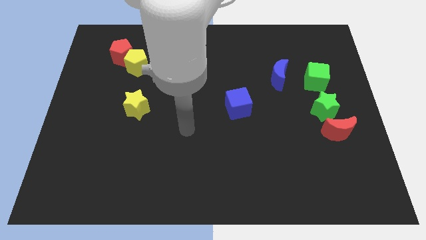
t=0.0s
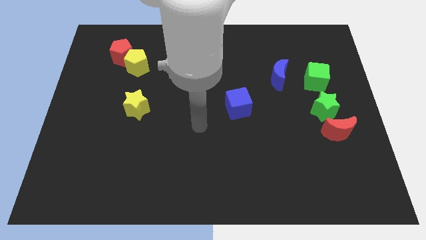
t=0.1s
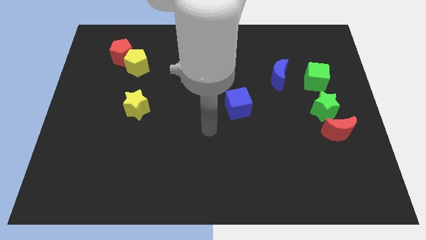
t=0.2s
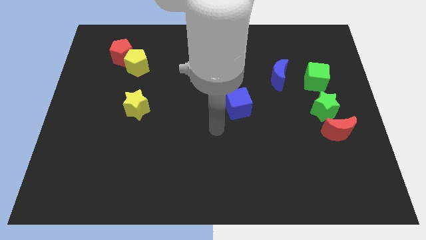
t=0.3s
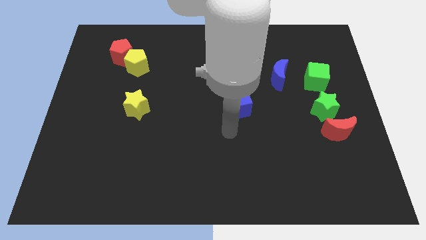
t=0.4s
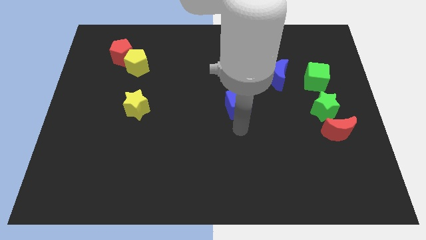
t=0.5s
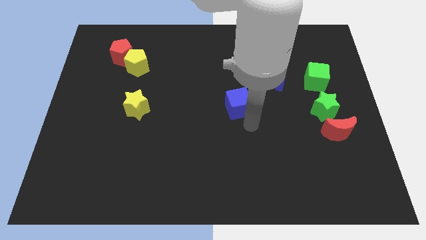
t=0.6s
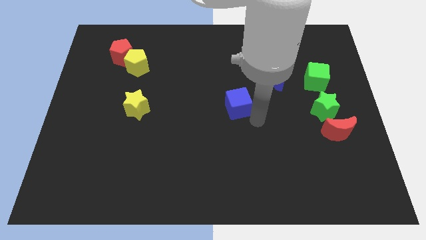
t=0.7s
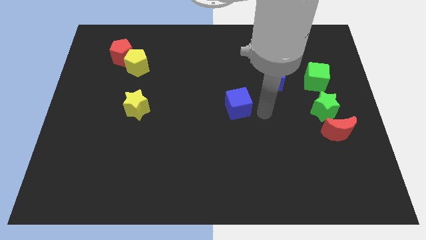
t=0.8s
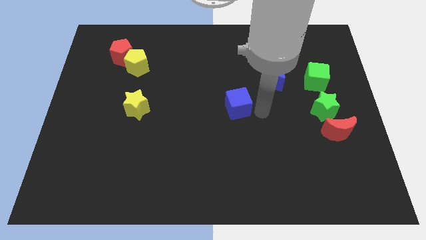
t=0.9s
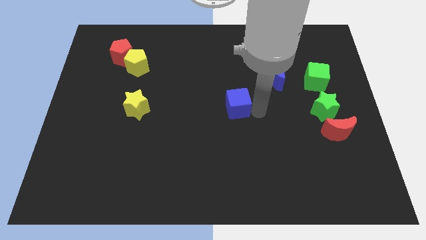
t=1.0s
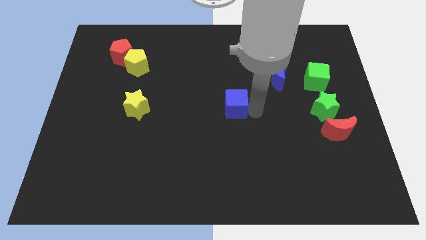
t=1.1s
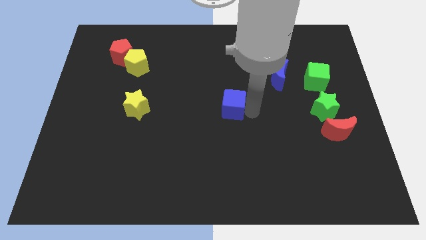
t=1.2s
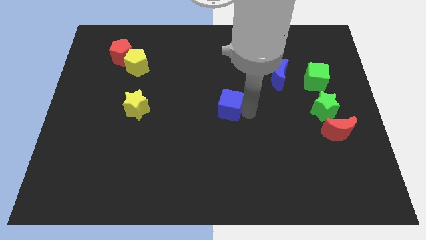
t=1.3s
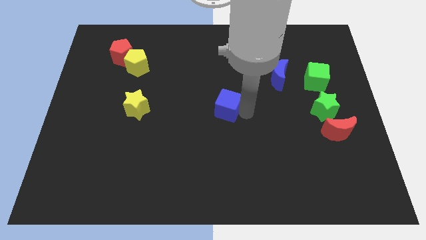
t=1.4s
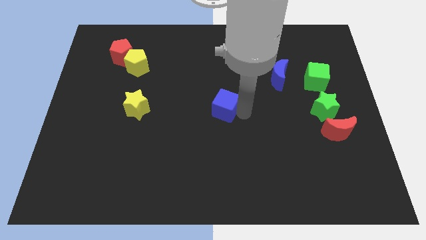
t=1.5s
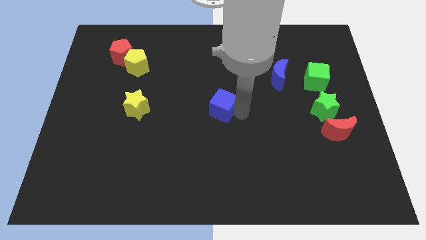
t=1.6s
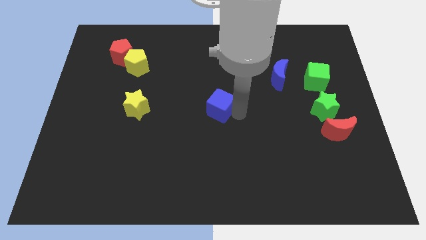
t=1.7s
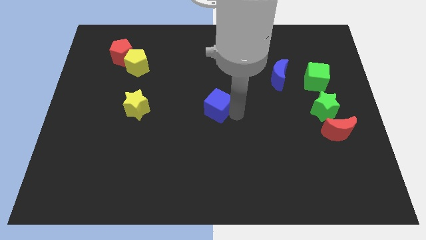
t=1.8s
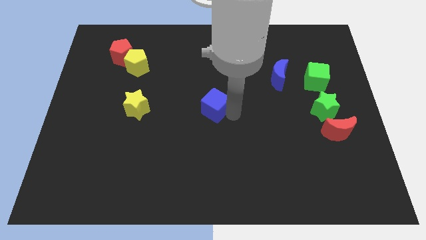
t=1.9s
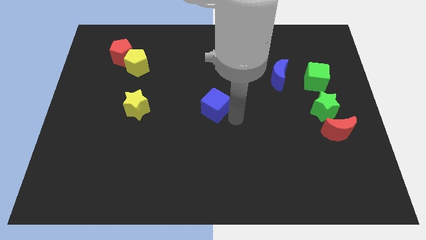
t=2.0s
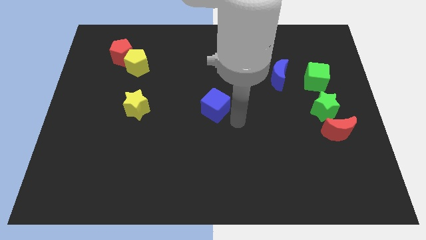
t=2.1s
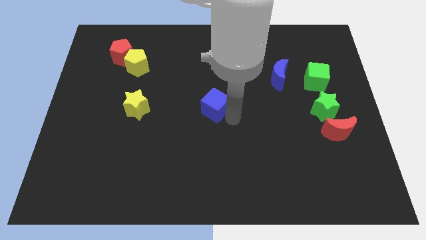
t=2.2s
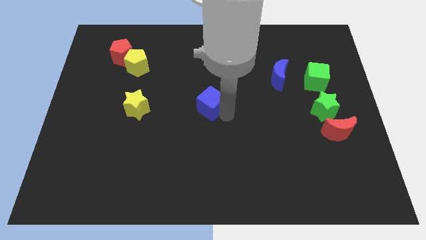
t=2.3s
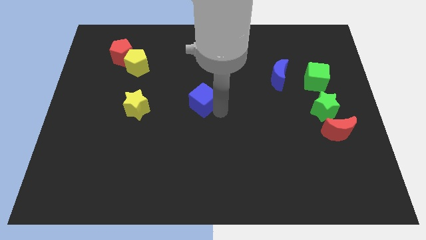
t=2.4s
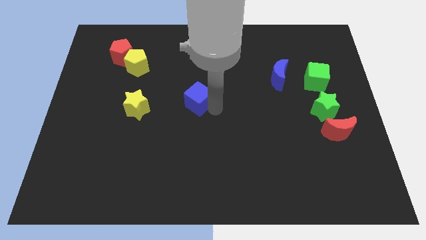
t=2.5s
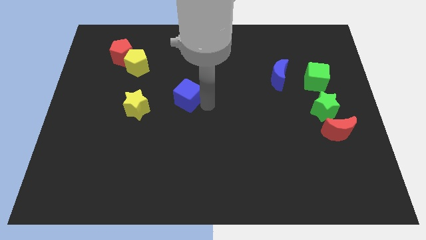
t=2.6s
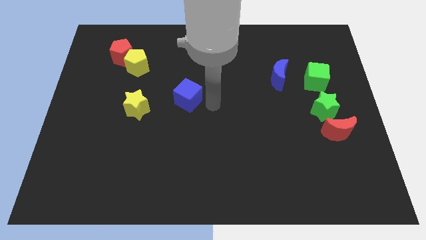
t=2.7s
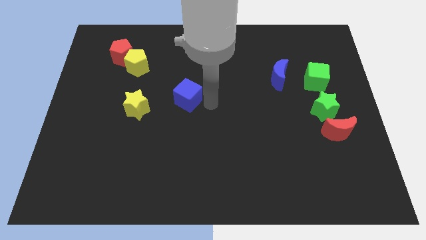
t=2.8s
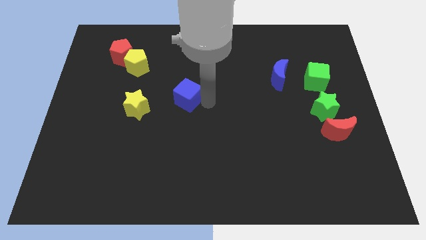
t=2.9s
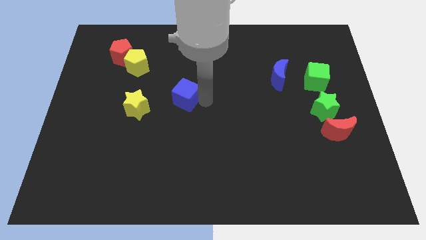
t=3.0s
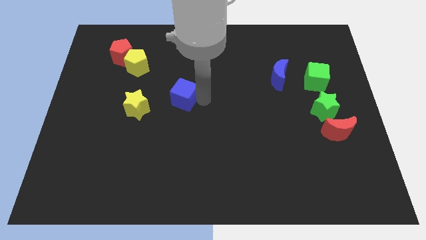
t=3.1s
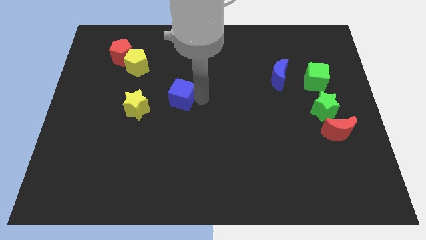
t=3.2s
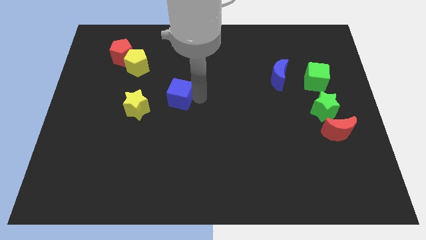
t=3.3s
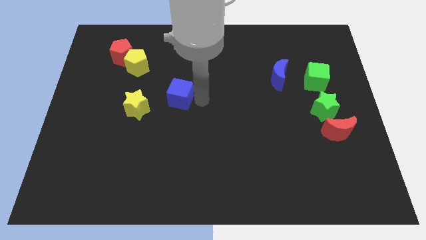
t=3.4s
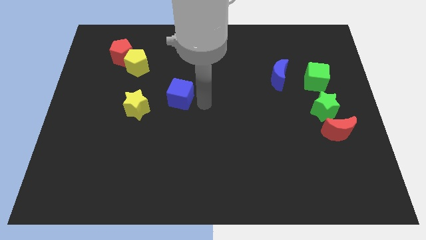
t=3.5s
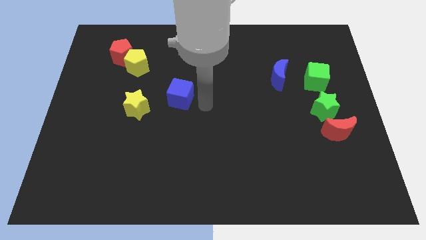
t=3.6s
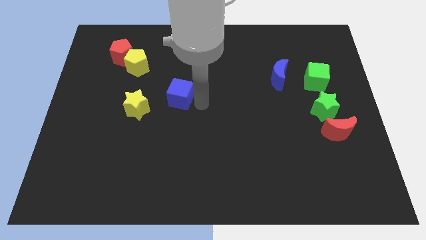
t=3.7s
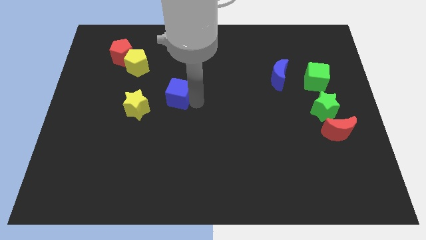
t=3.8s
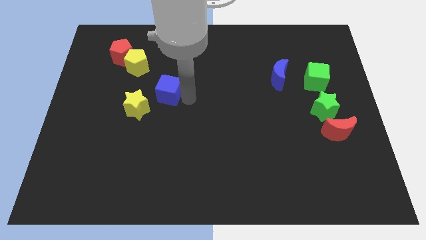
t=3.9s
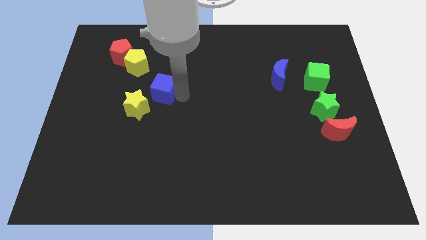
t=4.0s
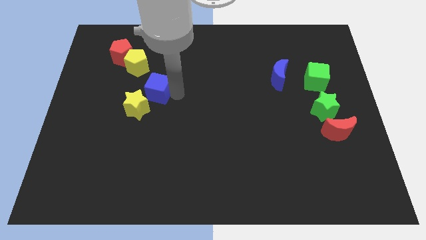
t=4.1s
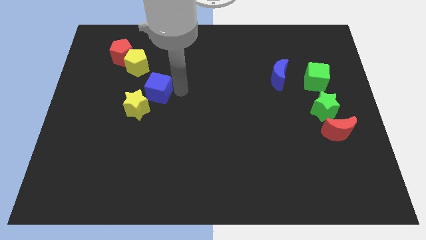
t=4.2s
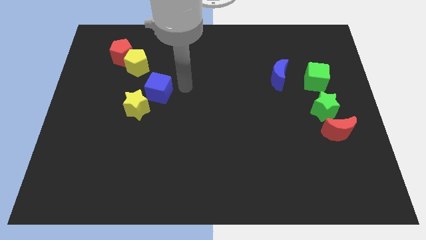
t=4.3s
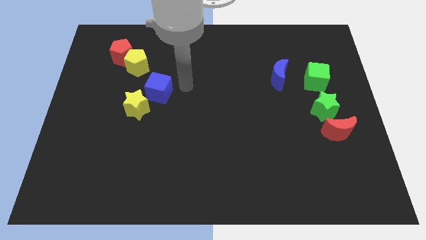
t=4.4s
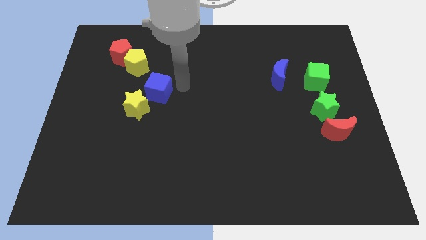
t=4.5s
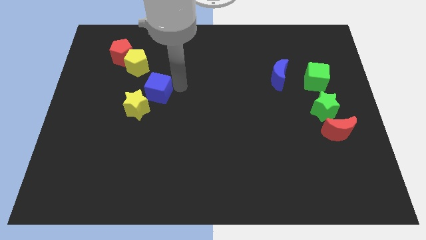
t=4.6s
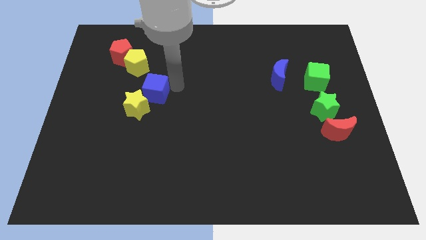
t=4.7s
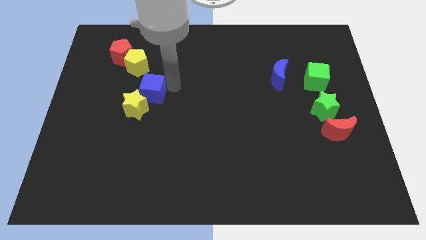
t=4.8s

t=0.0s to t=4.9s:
put the blue cube to the bottom side of the yellow pentagon

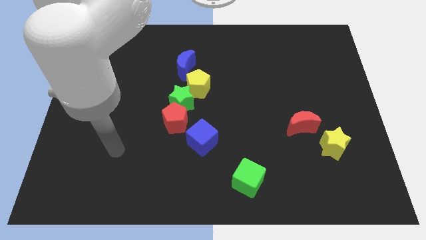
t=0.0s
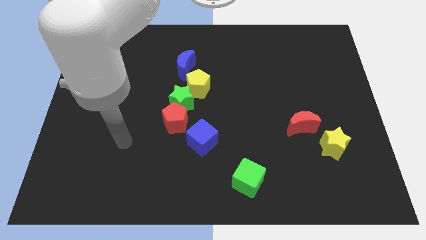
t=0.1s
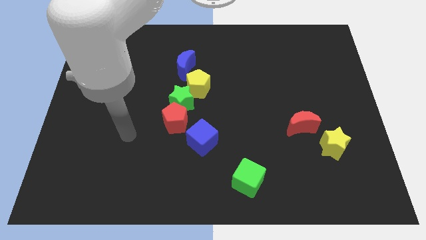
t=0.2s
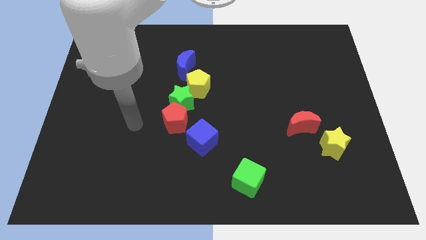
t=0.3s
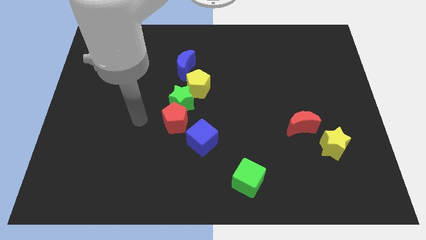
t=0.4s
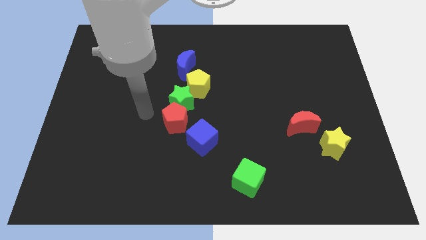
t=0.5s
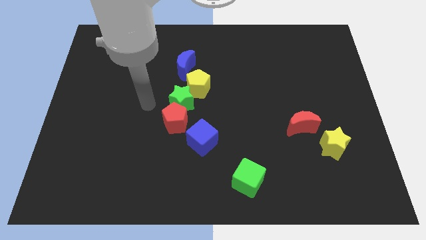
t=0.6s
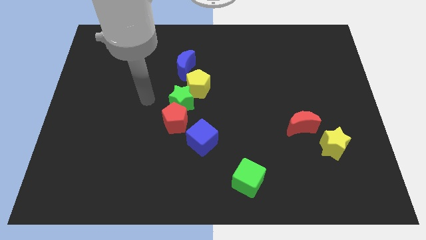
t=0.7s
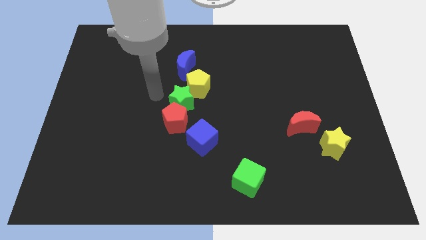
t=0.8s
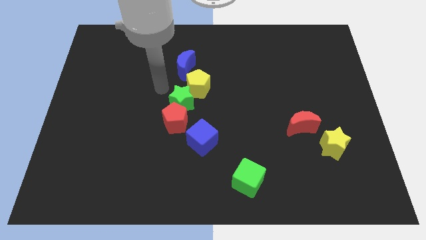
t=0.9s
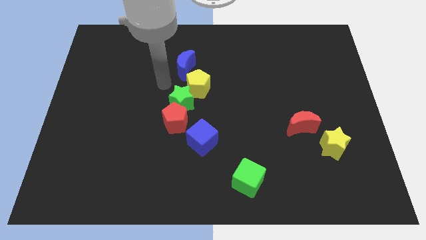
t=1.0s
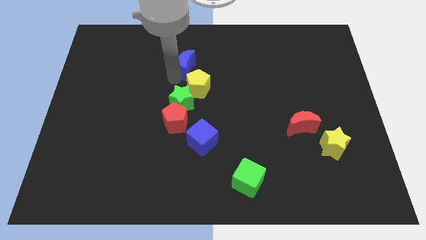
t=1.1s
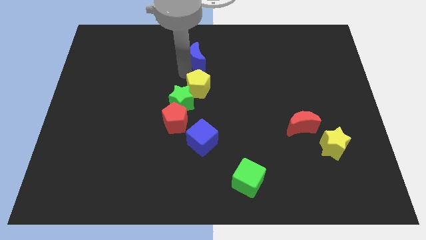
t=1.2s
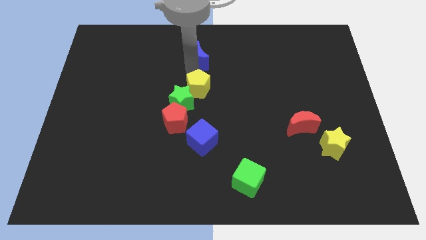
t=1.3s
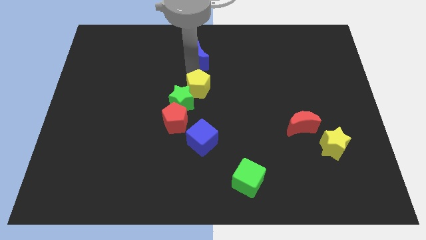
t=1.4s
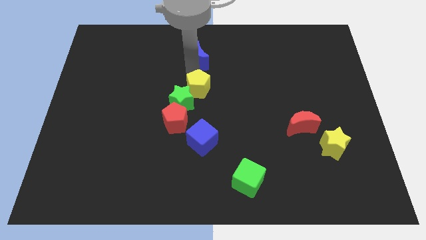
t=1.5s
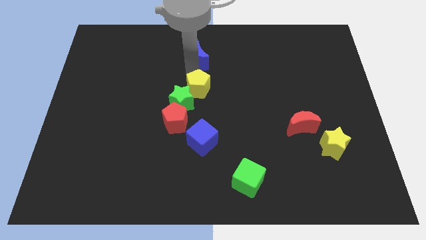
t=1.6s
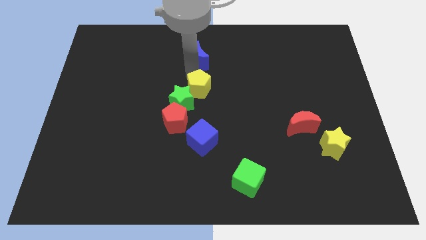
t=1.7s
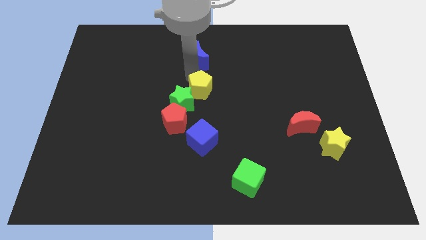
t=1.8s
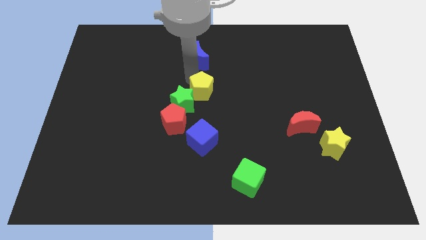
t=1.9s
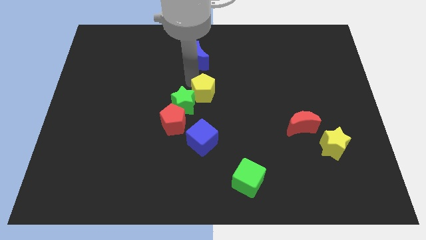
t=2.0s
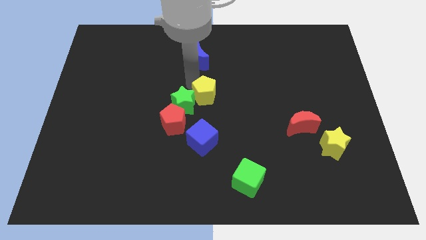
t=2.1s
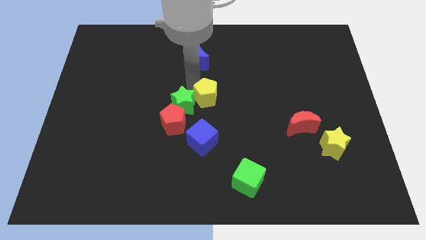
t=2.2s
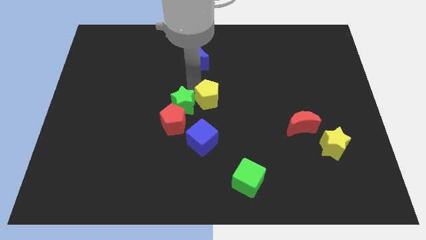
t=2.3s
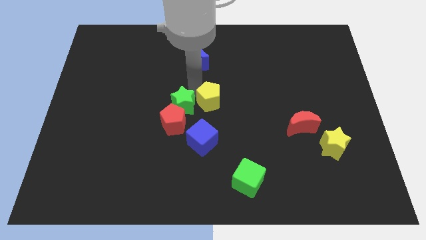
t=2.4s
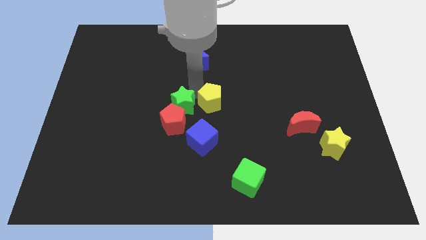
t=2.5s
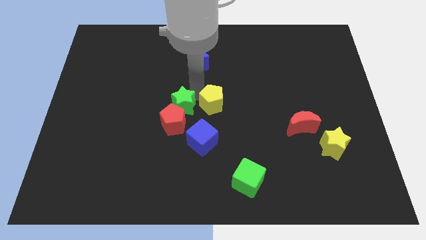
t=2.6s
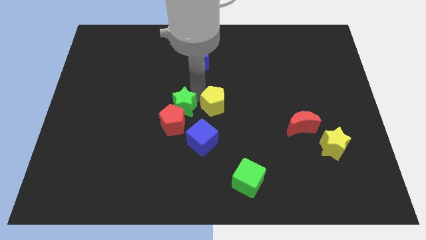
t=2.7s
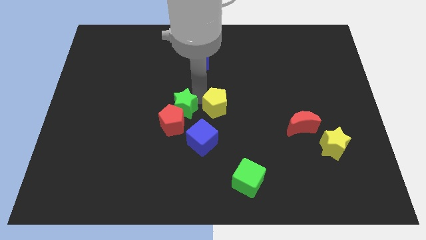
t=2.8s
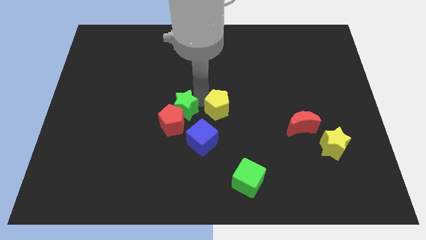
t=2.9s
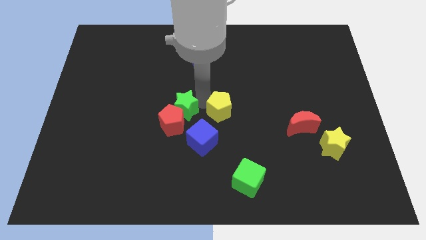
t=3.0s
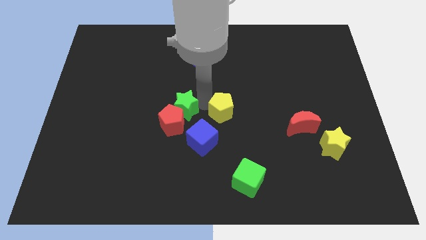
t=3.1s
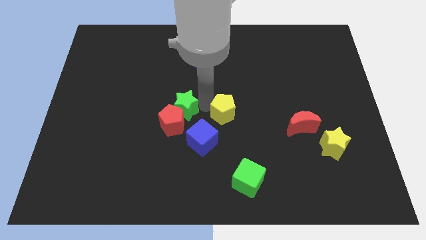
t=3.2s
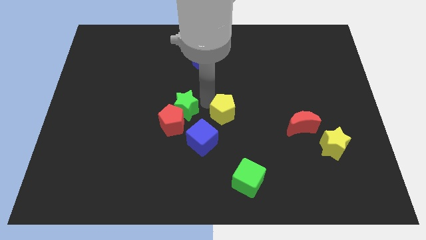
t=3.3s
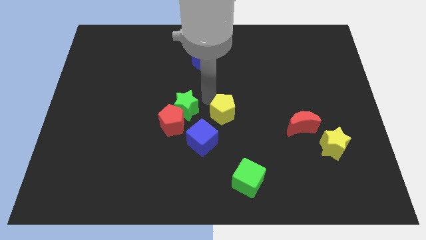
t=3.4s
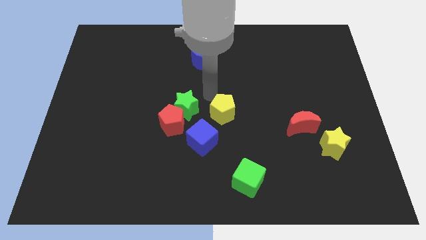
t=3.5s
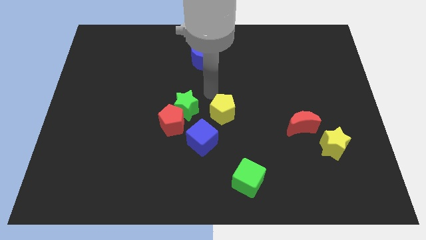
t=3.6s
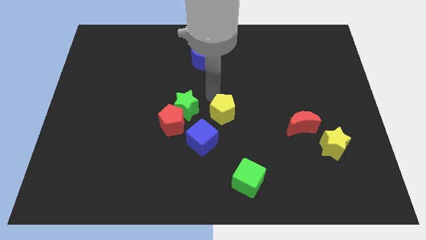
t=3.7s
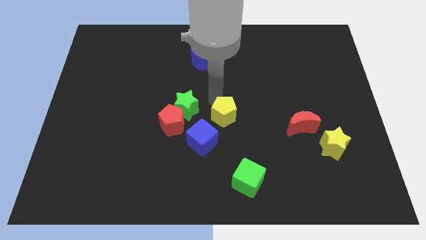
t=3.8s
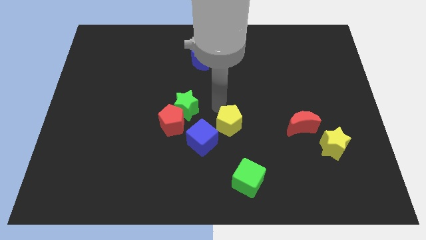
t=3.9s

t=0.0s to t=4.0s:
push the yellow pentagon to the right side of the blue cube
